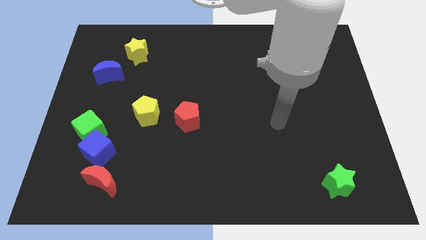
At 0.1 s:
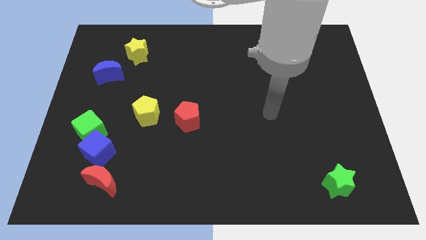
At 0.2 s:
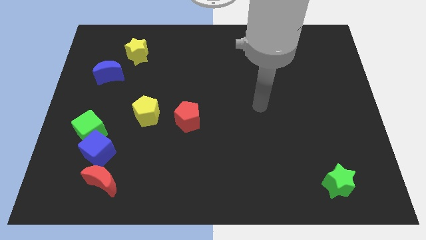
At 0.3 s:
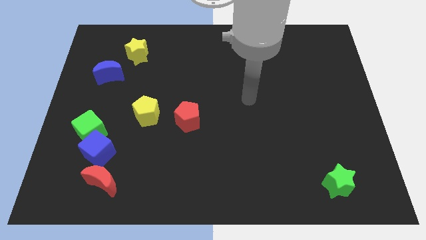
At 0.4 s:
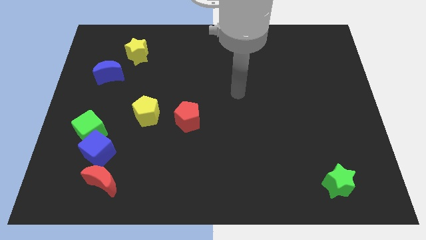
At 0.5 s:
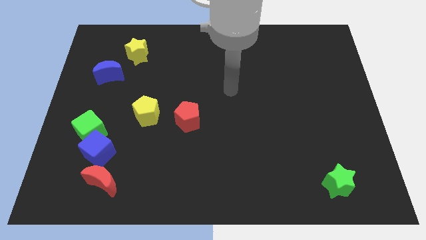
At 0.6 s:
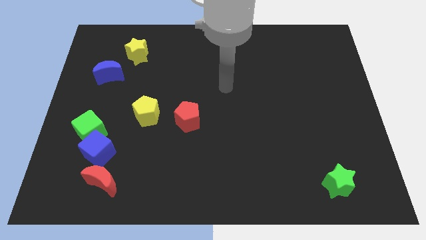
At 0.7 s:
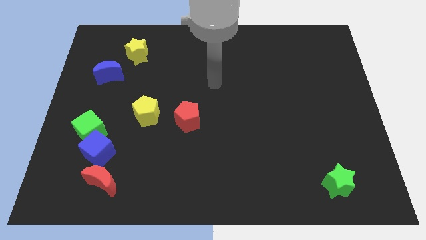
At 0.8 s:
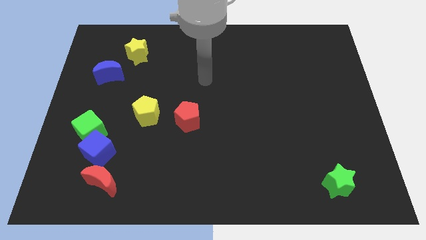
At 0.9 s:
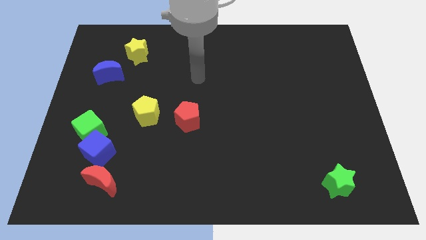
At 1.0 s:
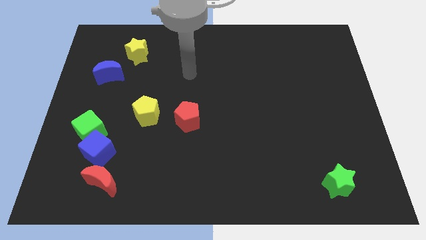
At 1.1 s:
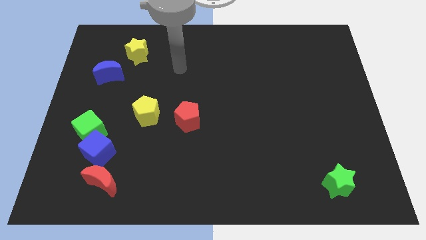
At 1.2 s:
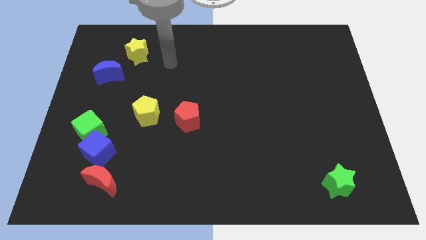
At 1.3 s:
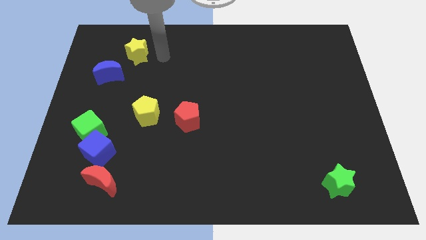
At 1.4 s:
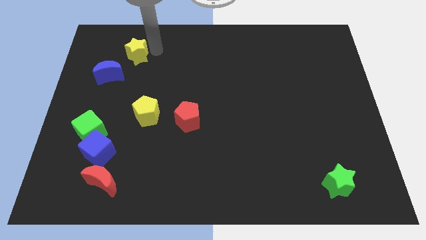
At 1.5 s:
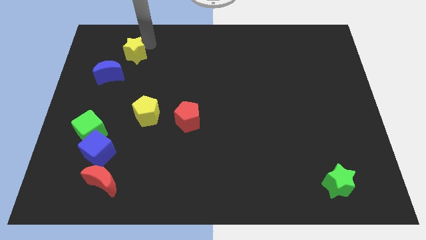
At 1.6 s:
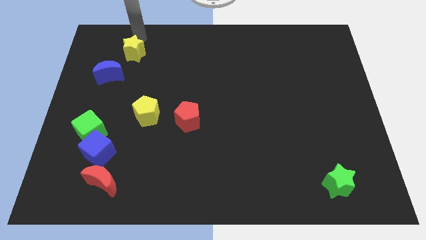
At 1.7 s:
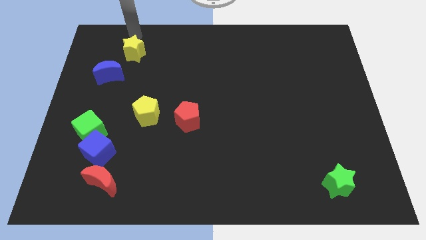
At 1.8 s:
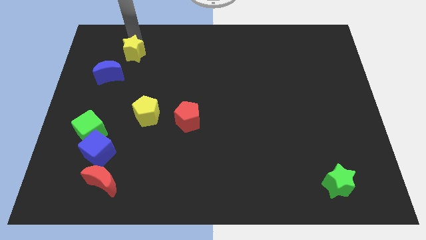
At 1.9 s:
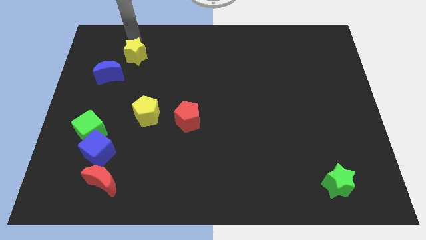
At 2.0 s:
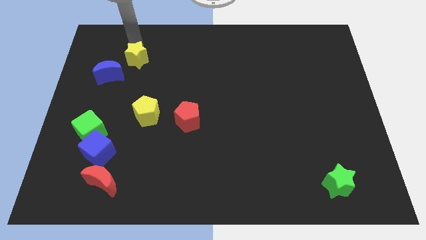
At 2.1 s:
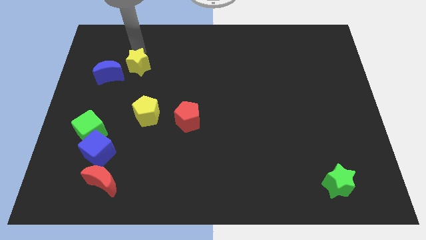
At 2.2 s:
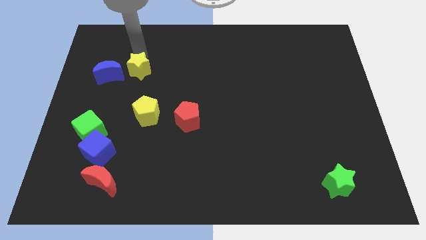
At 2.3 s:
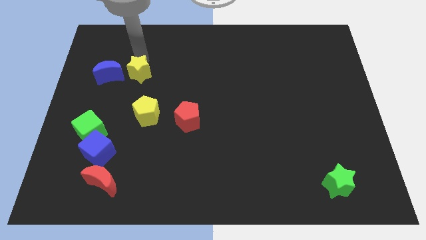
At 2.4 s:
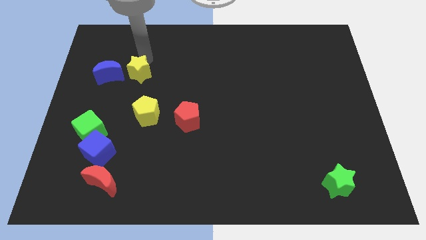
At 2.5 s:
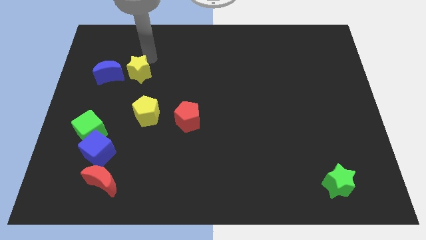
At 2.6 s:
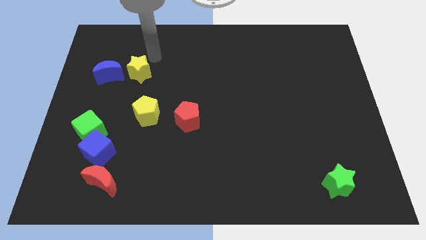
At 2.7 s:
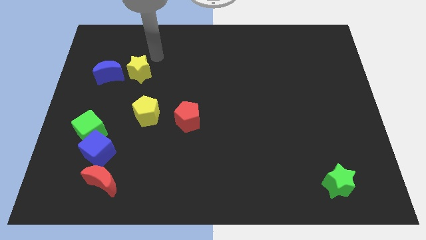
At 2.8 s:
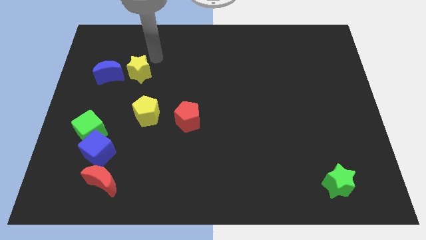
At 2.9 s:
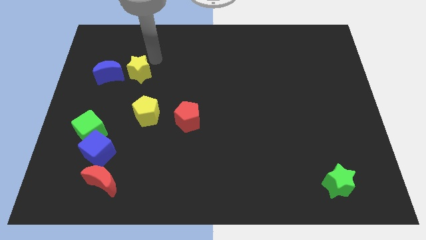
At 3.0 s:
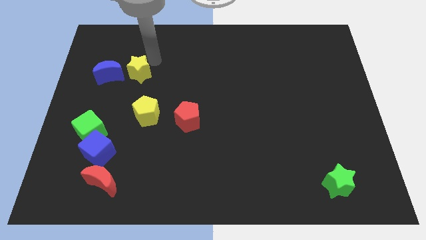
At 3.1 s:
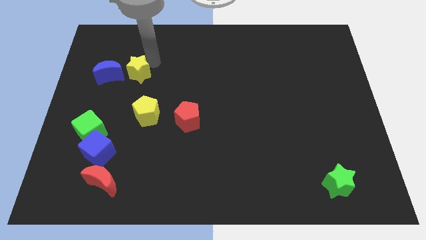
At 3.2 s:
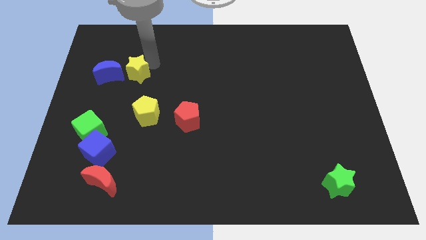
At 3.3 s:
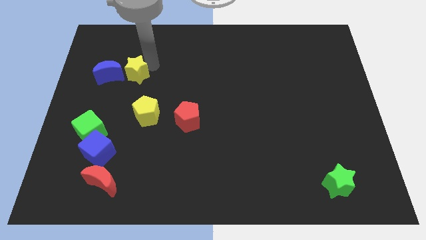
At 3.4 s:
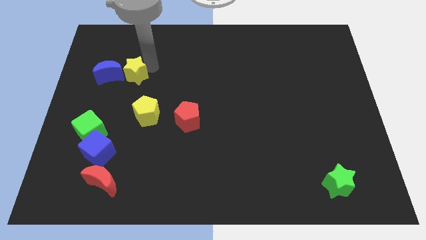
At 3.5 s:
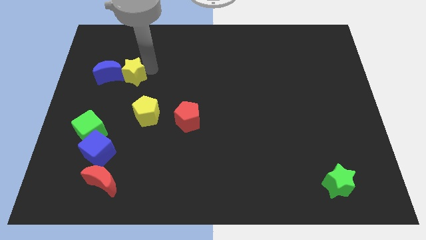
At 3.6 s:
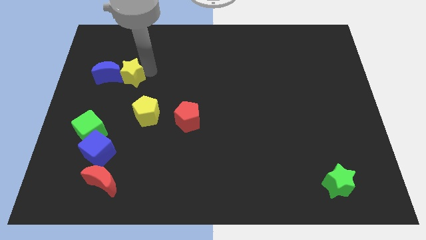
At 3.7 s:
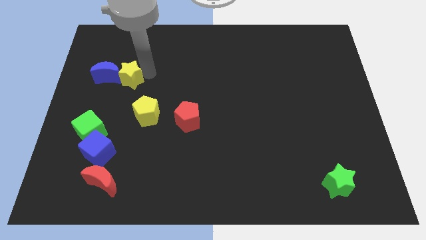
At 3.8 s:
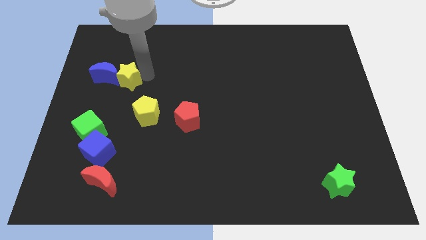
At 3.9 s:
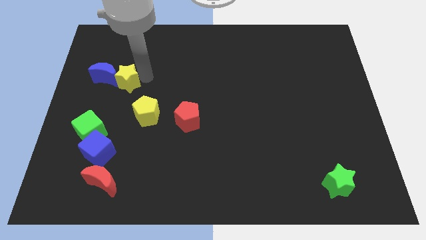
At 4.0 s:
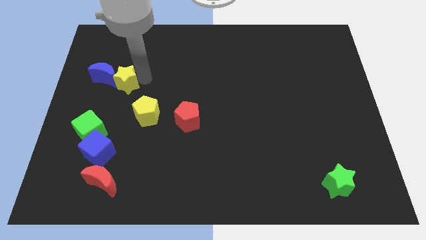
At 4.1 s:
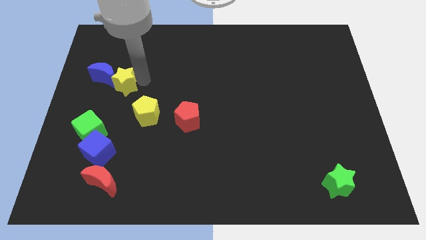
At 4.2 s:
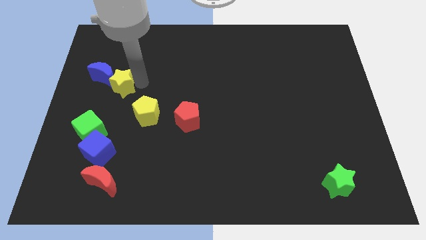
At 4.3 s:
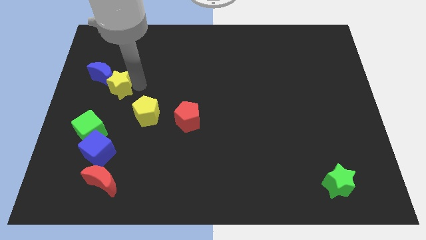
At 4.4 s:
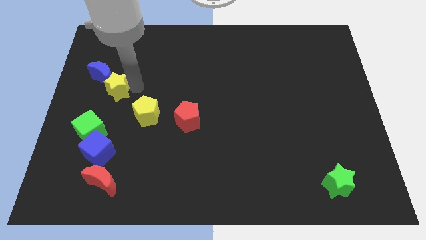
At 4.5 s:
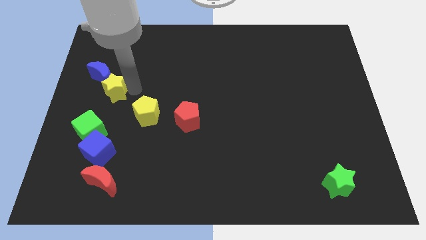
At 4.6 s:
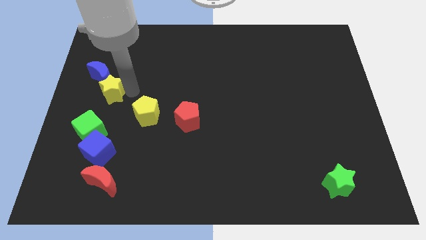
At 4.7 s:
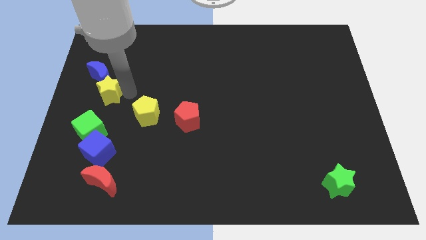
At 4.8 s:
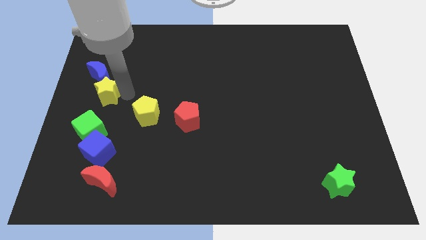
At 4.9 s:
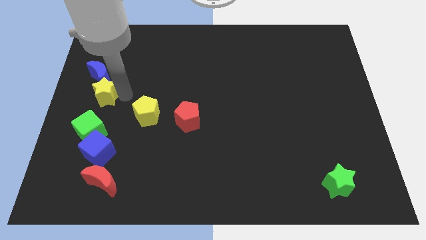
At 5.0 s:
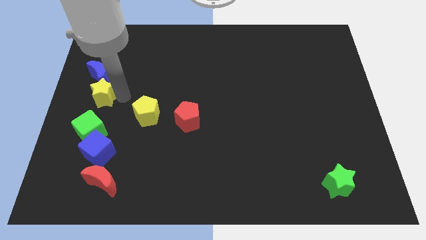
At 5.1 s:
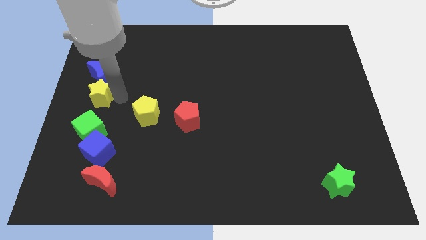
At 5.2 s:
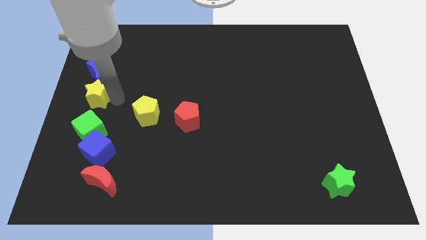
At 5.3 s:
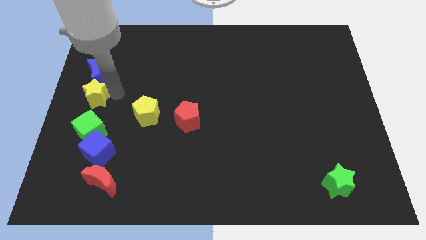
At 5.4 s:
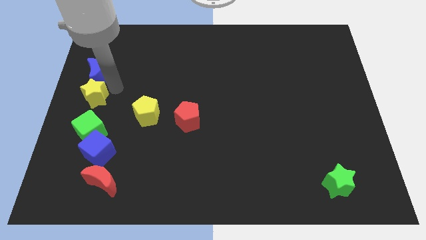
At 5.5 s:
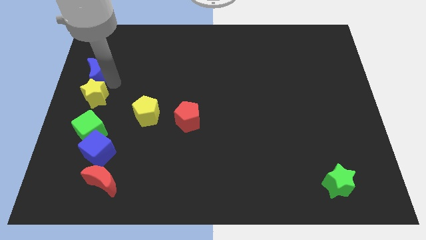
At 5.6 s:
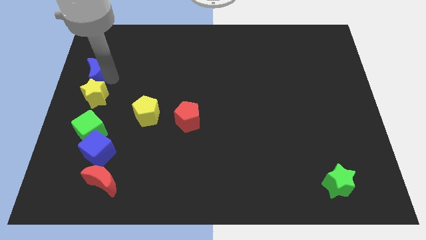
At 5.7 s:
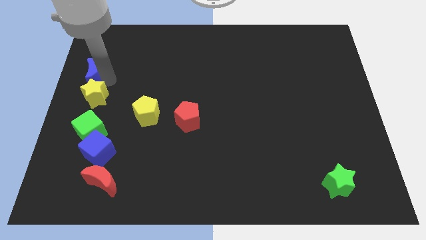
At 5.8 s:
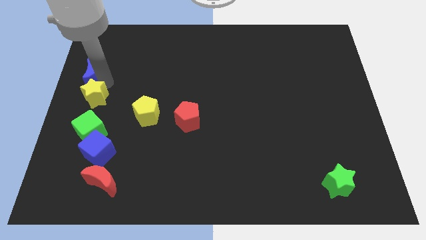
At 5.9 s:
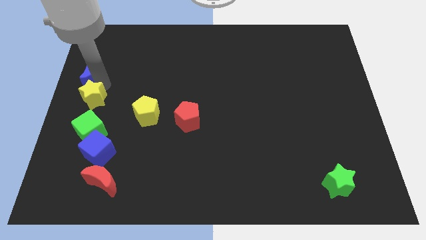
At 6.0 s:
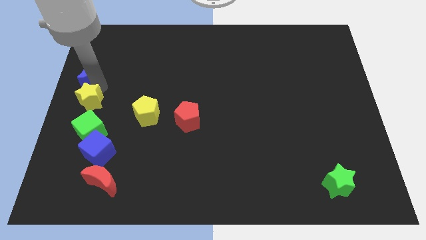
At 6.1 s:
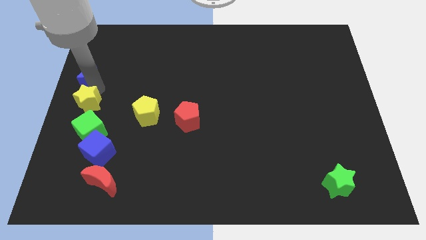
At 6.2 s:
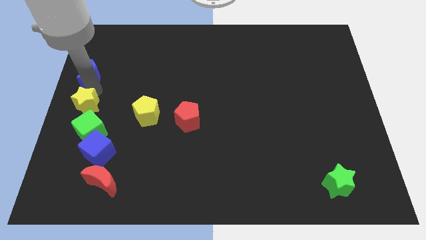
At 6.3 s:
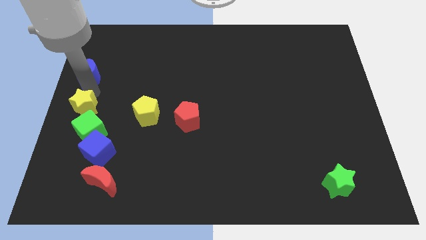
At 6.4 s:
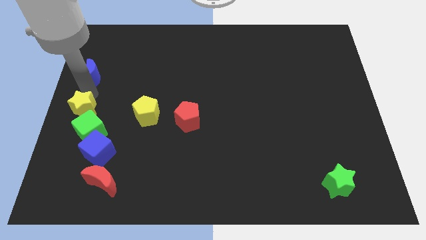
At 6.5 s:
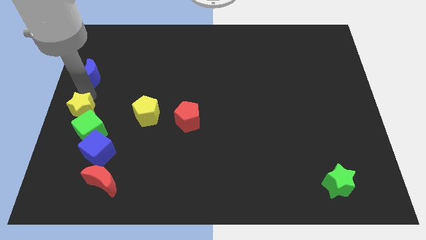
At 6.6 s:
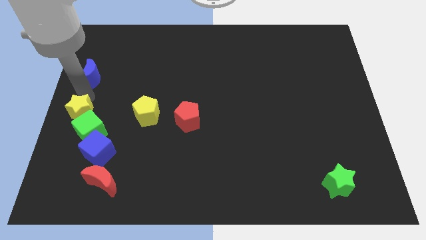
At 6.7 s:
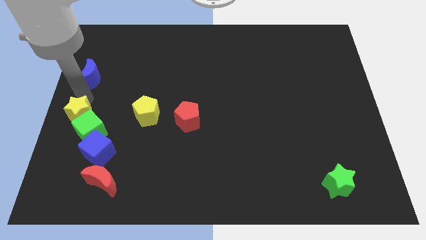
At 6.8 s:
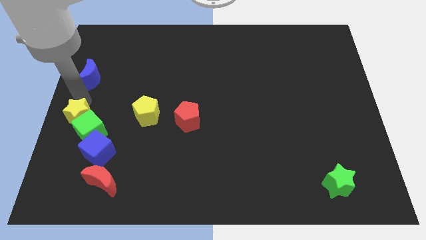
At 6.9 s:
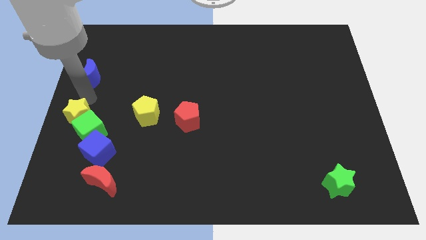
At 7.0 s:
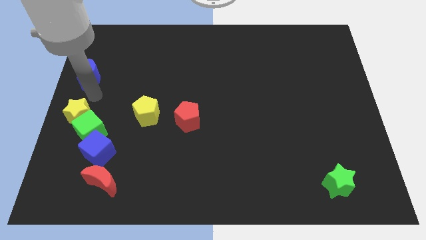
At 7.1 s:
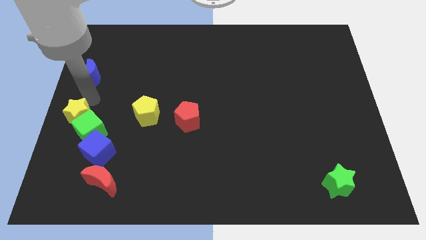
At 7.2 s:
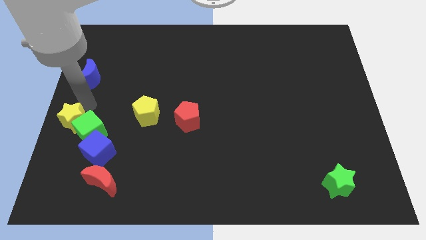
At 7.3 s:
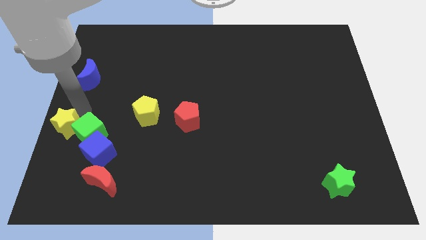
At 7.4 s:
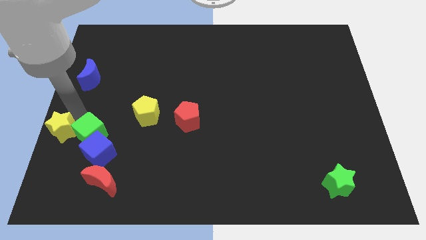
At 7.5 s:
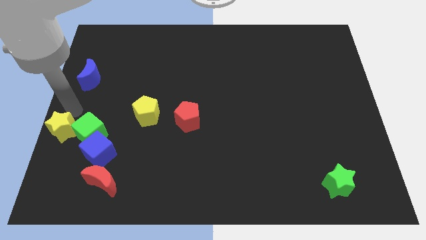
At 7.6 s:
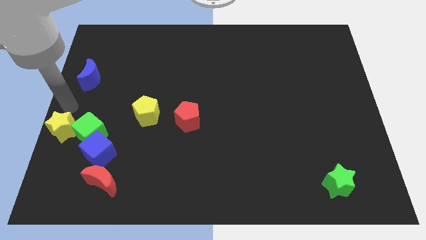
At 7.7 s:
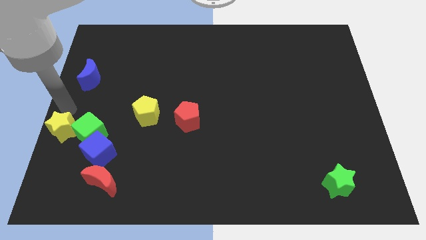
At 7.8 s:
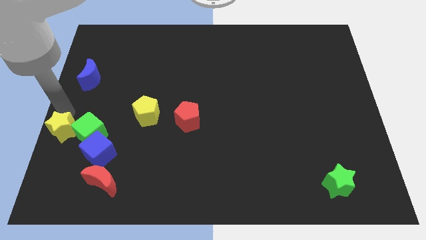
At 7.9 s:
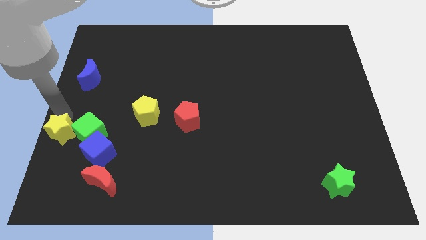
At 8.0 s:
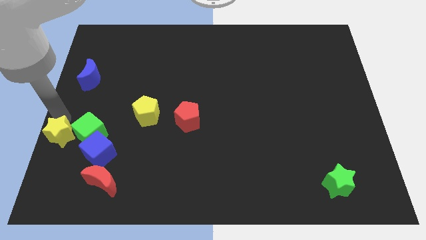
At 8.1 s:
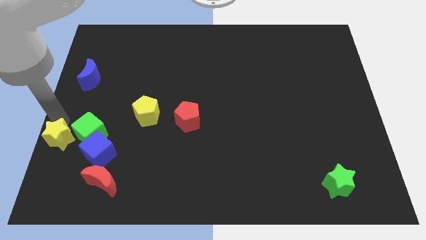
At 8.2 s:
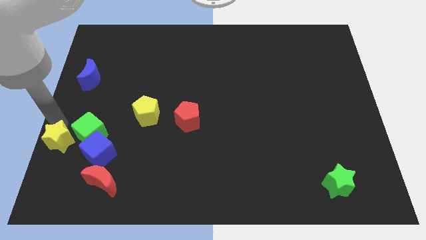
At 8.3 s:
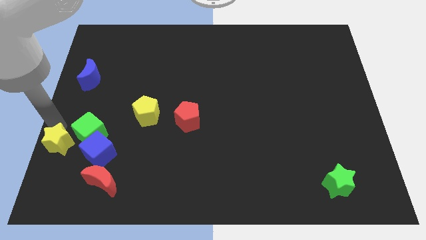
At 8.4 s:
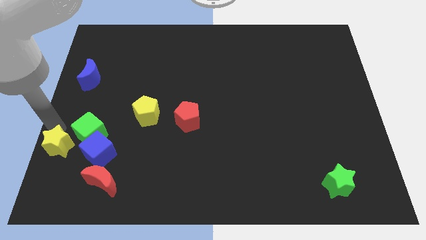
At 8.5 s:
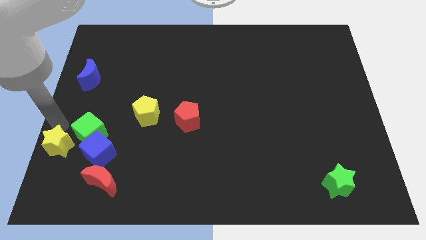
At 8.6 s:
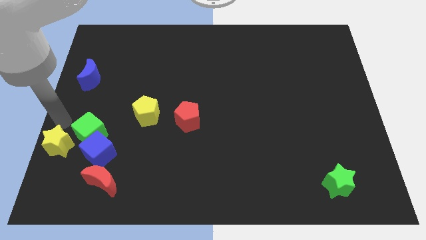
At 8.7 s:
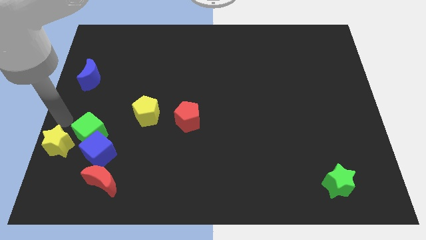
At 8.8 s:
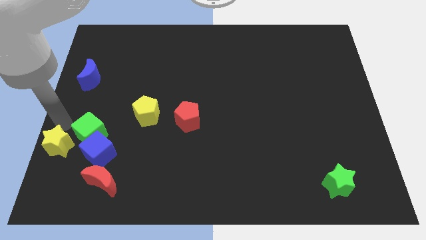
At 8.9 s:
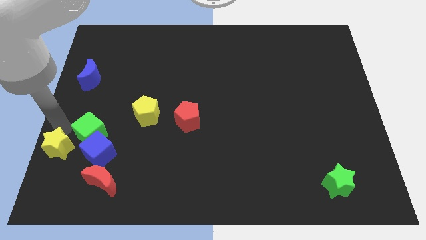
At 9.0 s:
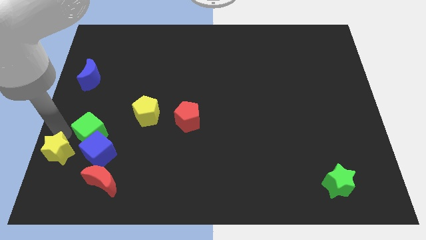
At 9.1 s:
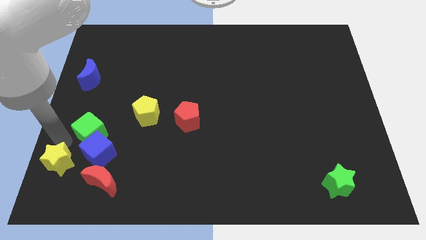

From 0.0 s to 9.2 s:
put the yellow star to the bottom left
